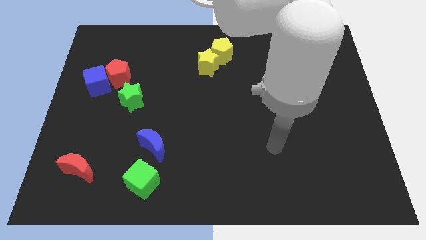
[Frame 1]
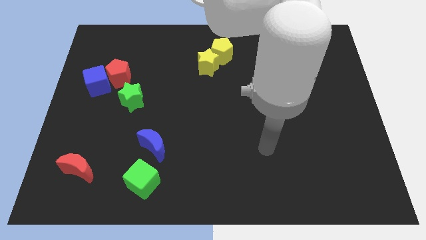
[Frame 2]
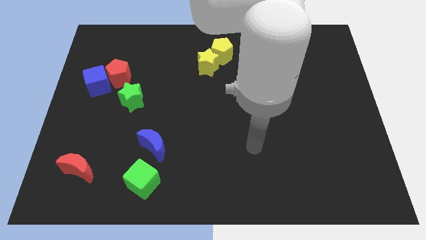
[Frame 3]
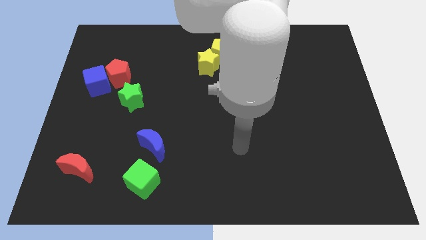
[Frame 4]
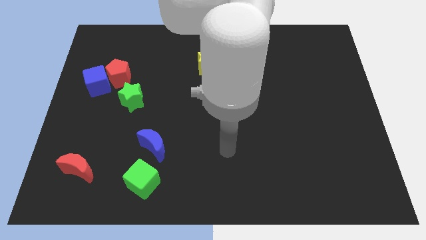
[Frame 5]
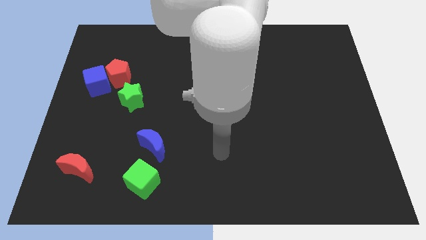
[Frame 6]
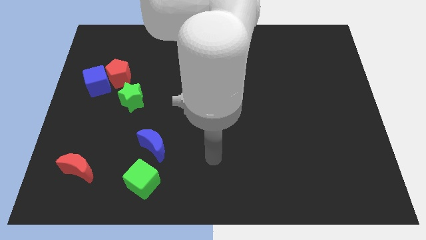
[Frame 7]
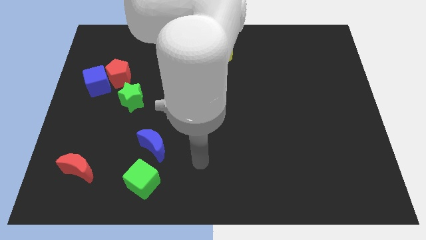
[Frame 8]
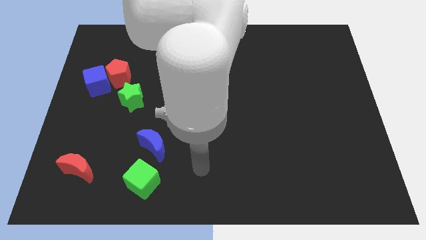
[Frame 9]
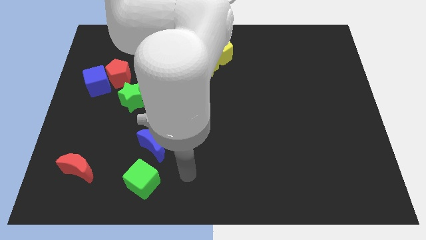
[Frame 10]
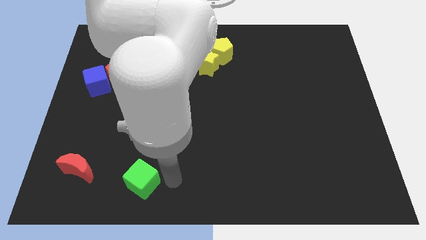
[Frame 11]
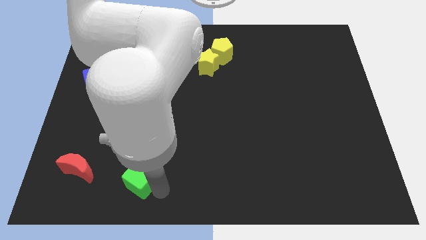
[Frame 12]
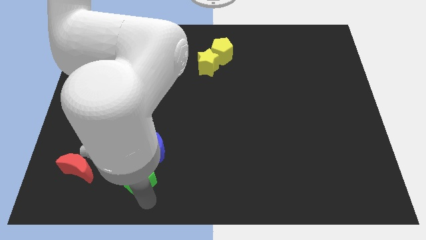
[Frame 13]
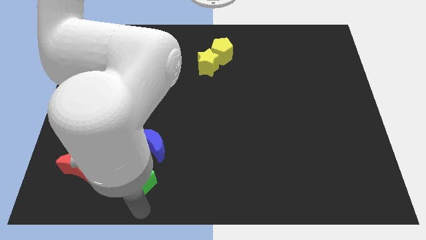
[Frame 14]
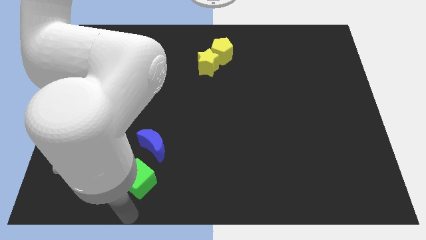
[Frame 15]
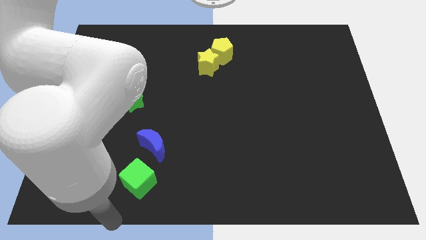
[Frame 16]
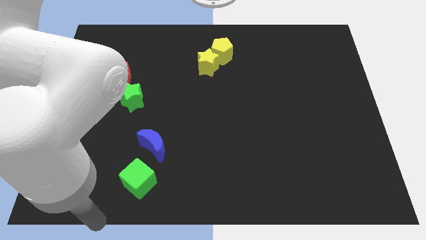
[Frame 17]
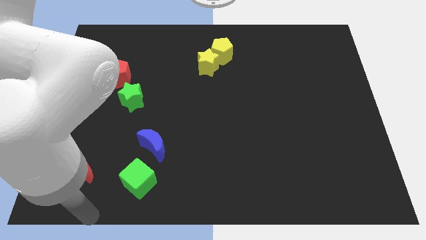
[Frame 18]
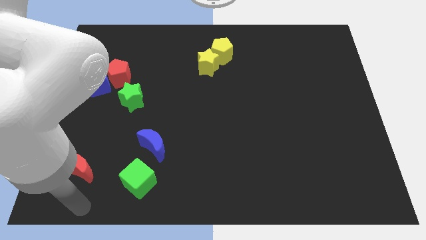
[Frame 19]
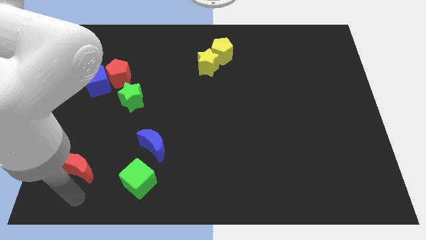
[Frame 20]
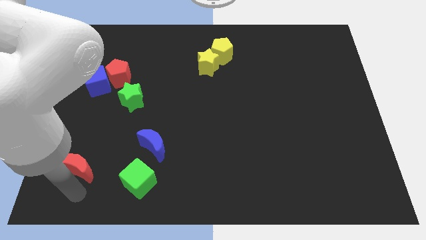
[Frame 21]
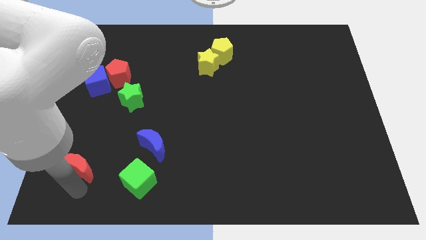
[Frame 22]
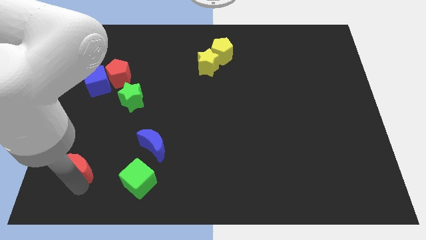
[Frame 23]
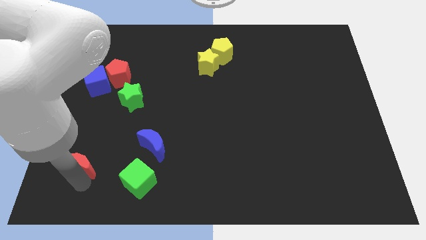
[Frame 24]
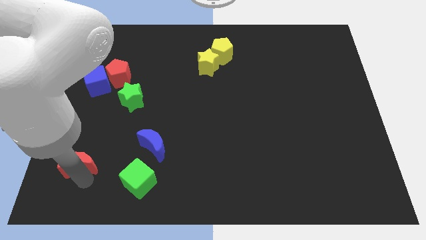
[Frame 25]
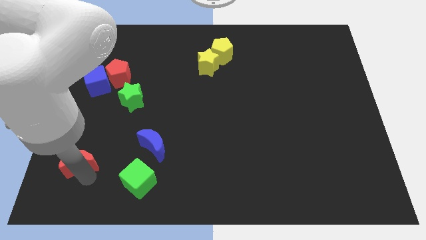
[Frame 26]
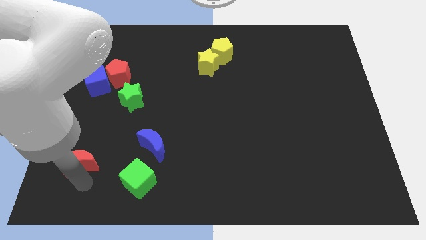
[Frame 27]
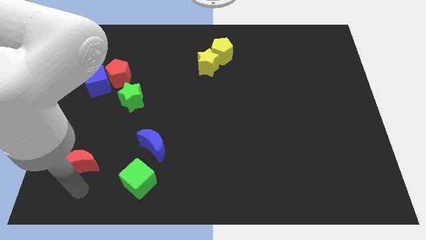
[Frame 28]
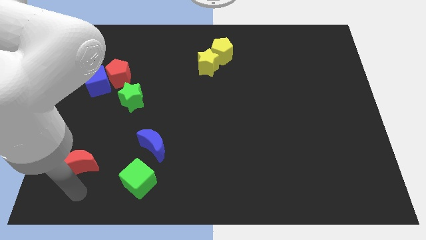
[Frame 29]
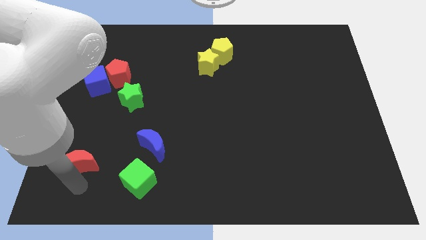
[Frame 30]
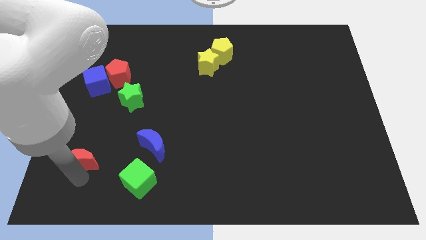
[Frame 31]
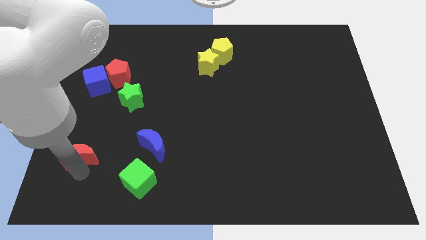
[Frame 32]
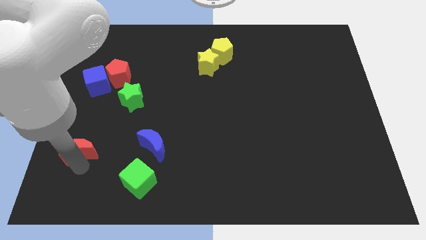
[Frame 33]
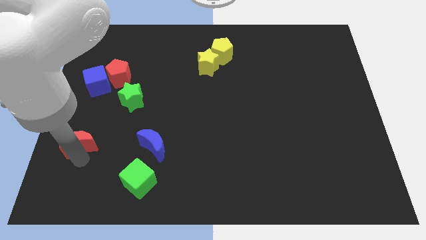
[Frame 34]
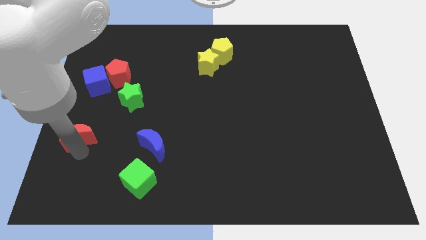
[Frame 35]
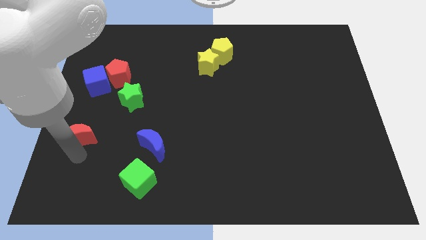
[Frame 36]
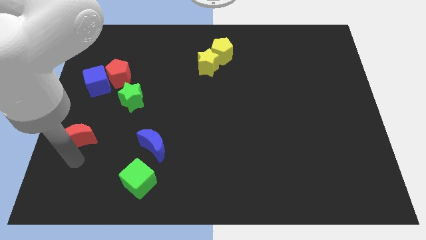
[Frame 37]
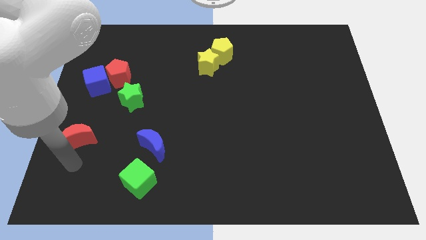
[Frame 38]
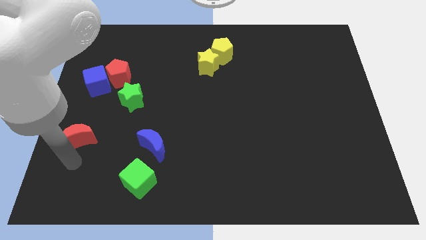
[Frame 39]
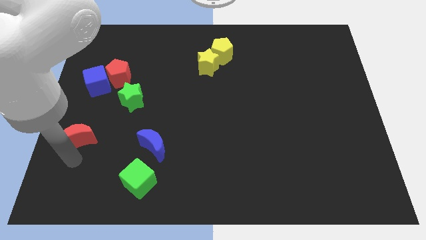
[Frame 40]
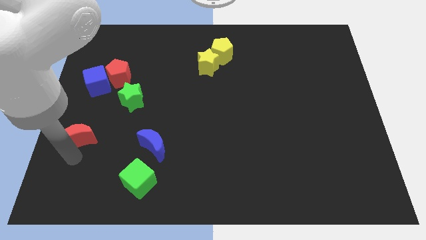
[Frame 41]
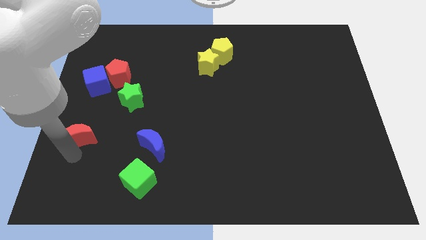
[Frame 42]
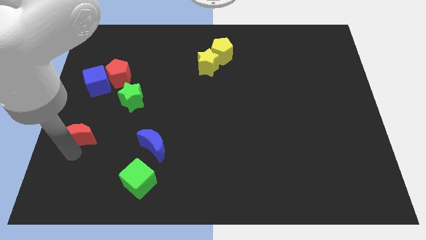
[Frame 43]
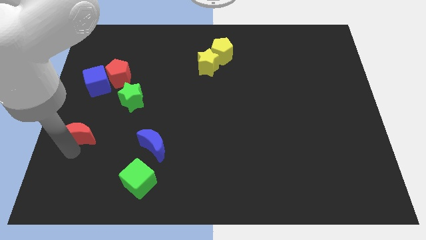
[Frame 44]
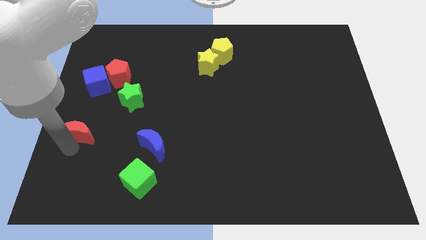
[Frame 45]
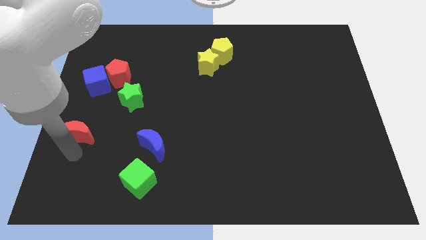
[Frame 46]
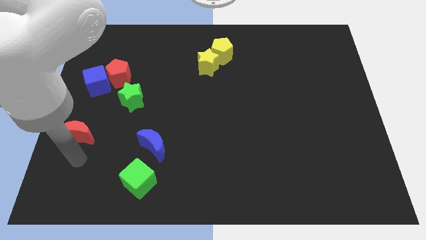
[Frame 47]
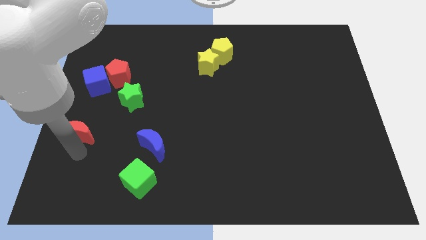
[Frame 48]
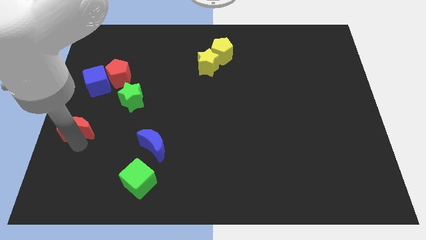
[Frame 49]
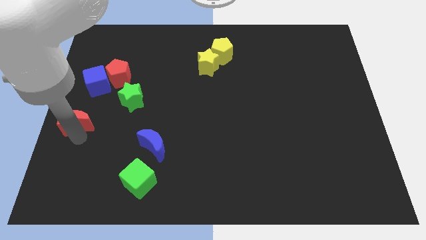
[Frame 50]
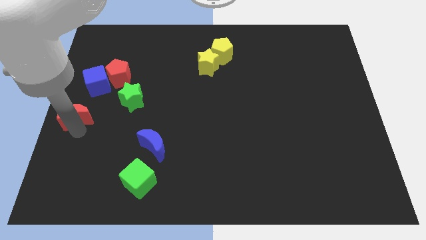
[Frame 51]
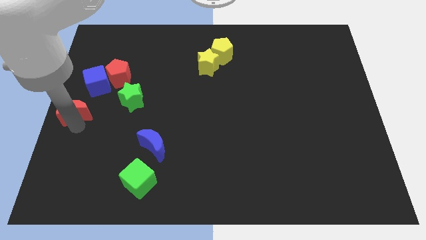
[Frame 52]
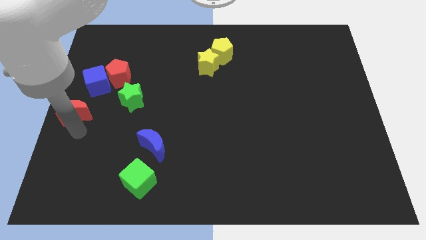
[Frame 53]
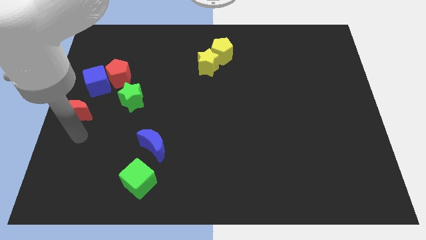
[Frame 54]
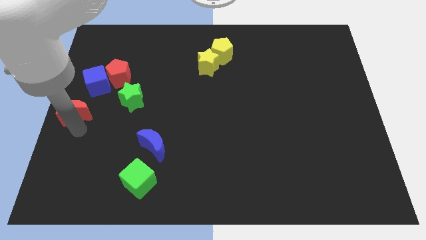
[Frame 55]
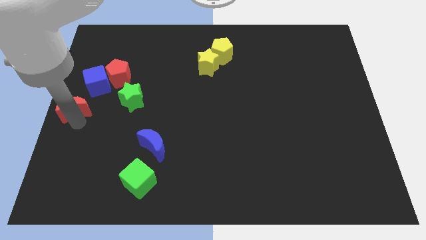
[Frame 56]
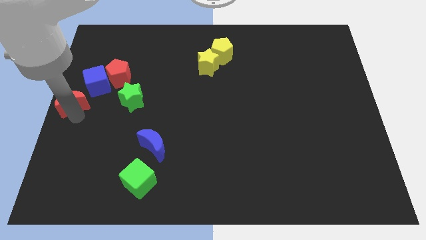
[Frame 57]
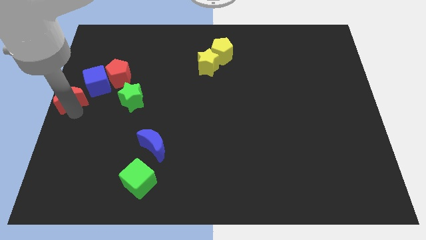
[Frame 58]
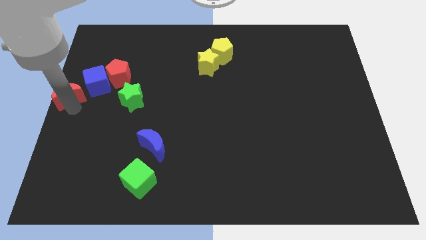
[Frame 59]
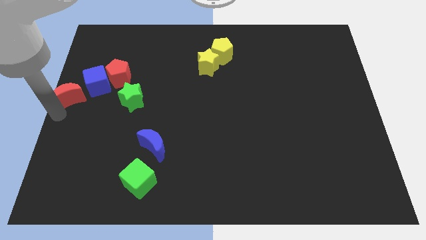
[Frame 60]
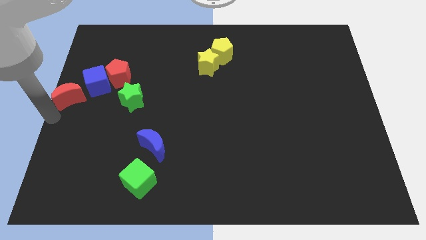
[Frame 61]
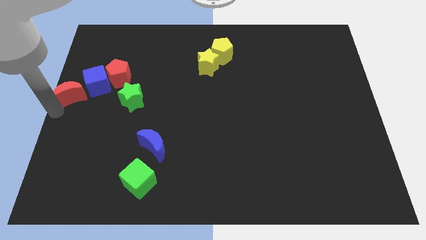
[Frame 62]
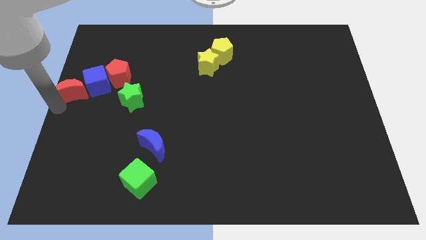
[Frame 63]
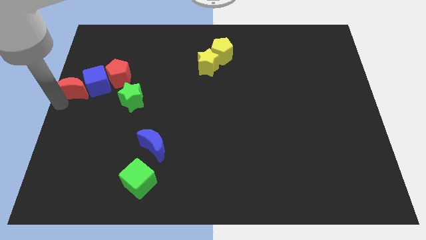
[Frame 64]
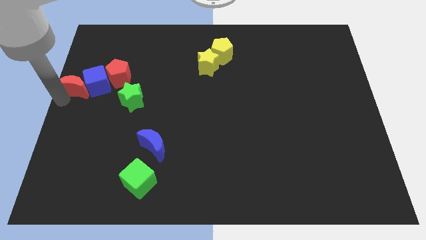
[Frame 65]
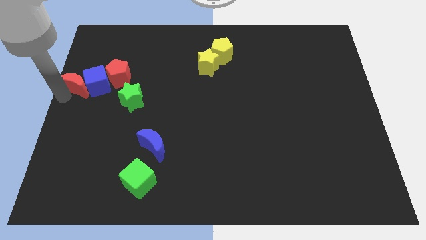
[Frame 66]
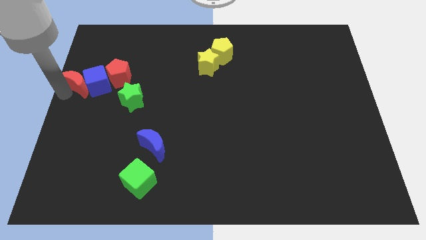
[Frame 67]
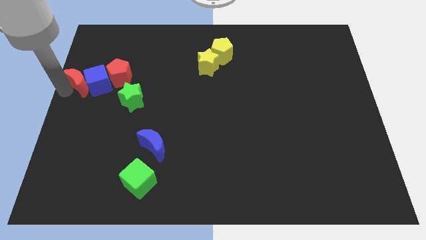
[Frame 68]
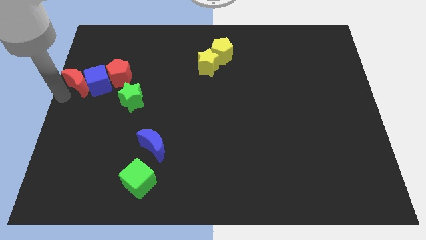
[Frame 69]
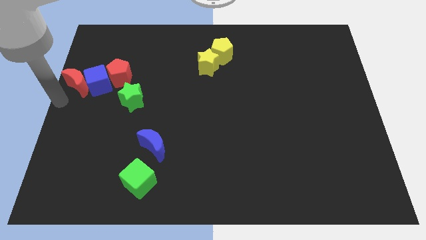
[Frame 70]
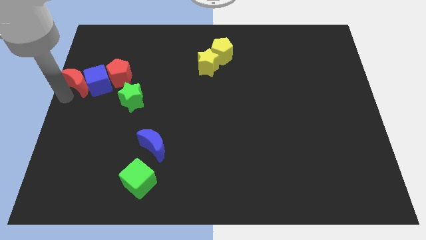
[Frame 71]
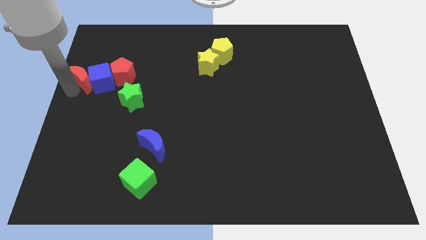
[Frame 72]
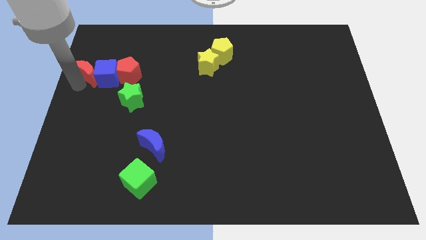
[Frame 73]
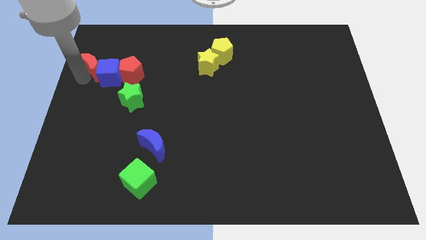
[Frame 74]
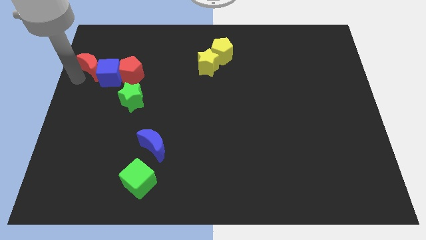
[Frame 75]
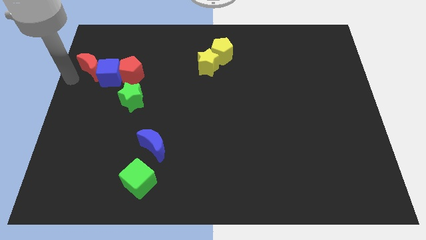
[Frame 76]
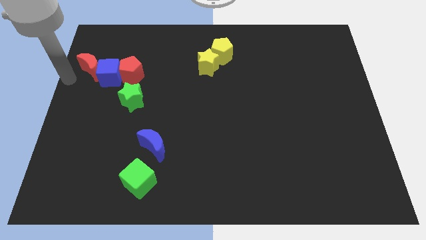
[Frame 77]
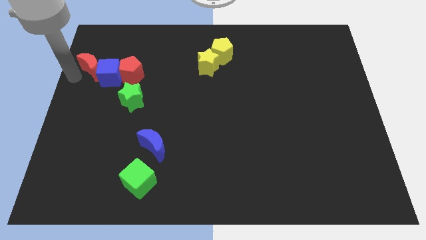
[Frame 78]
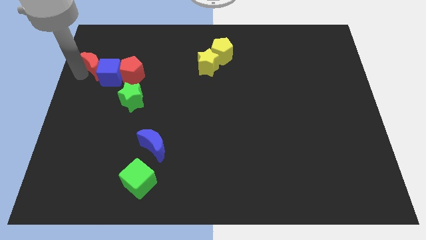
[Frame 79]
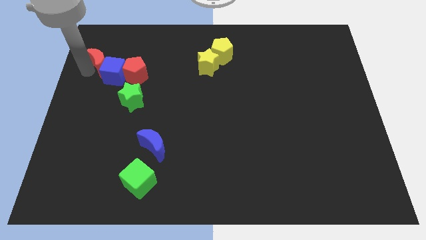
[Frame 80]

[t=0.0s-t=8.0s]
push the red moon to the top left of the red pentagon
